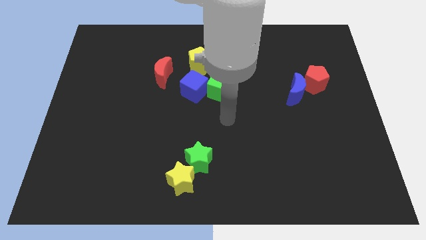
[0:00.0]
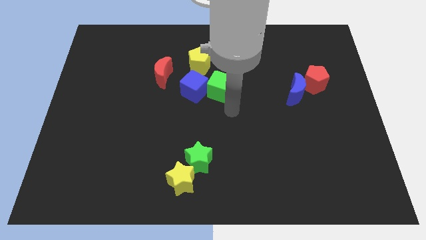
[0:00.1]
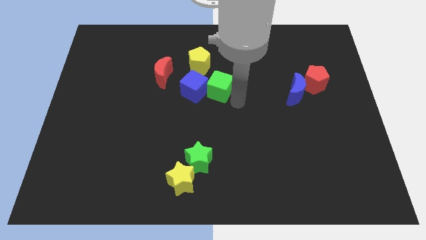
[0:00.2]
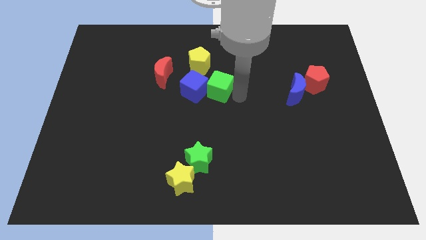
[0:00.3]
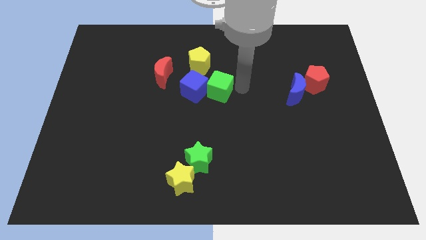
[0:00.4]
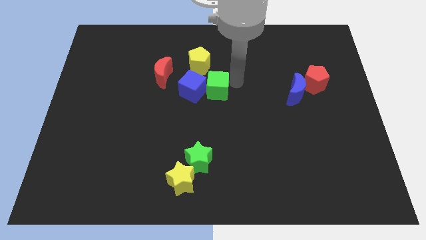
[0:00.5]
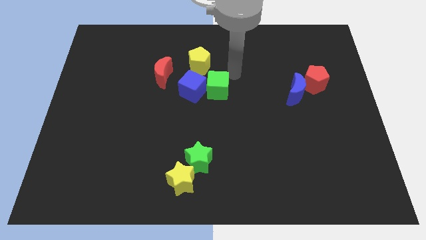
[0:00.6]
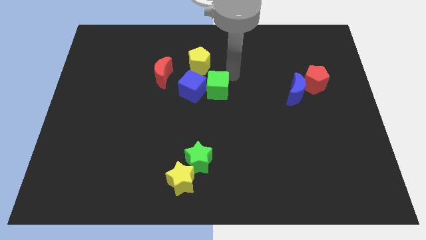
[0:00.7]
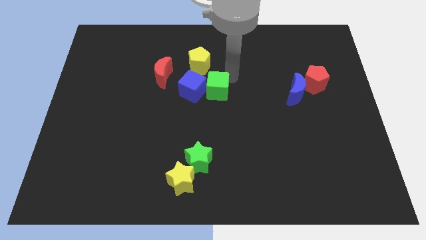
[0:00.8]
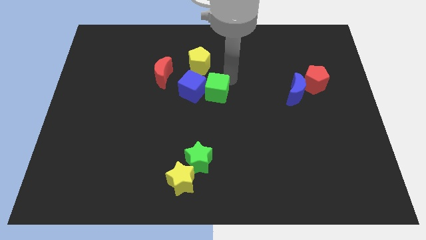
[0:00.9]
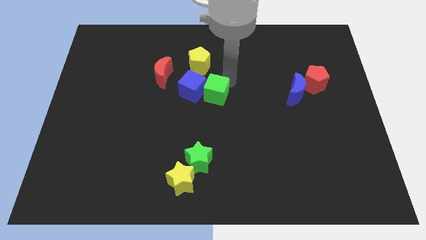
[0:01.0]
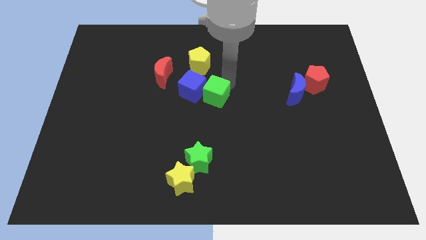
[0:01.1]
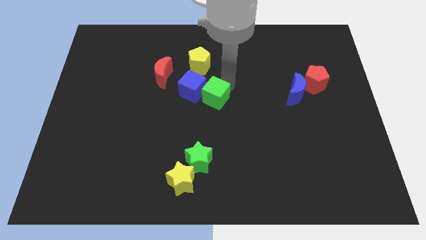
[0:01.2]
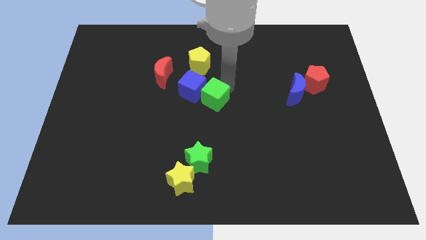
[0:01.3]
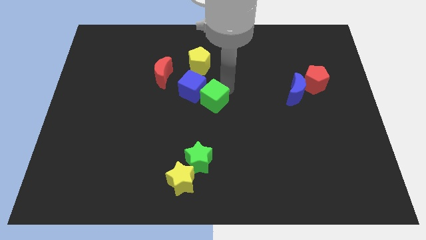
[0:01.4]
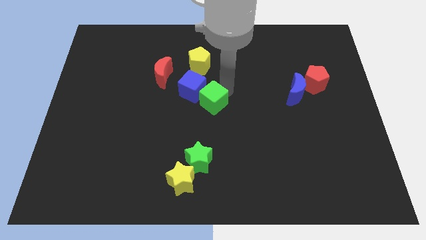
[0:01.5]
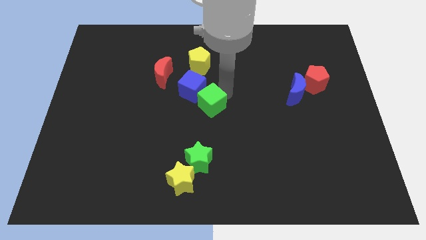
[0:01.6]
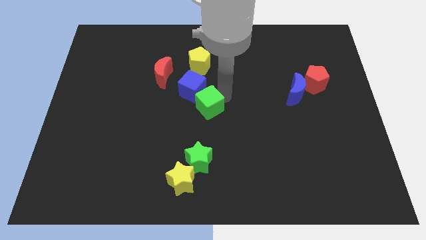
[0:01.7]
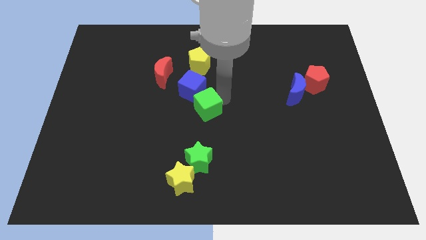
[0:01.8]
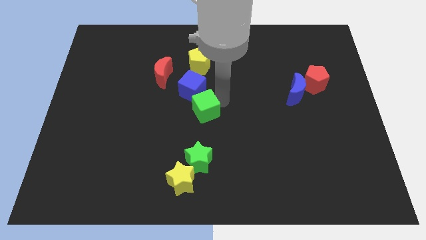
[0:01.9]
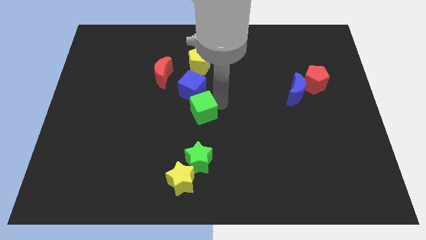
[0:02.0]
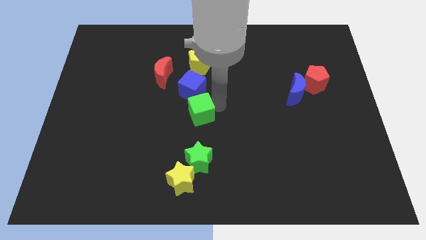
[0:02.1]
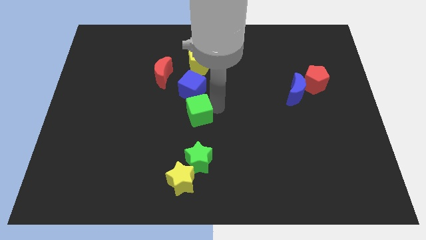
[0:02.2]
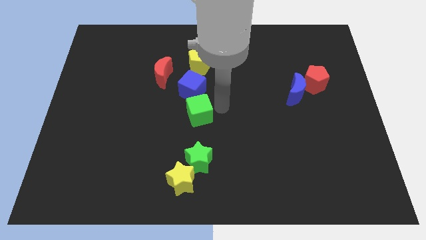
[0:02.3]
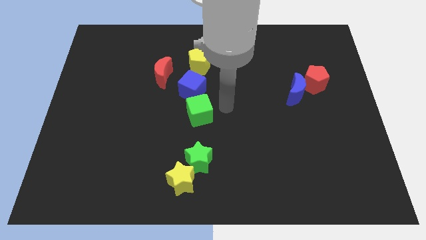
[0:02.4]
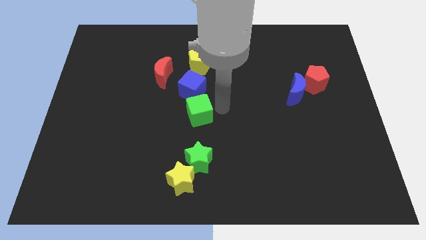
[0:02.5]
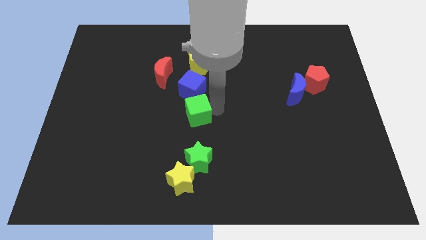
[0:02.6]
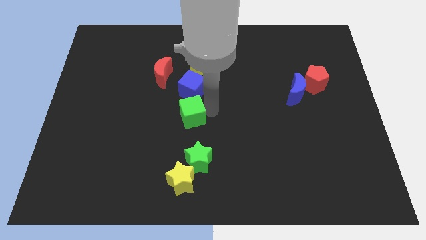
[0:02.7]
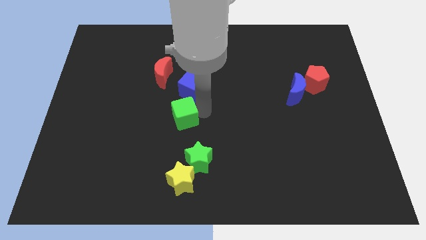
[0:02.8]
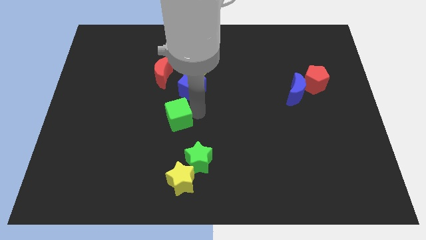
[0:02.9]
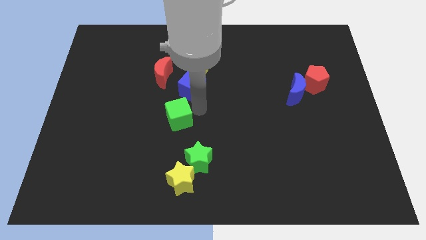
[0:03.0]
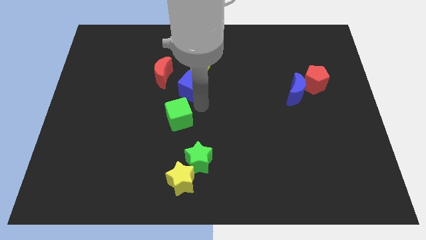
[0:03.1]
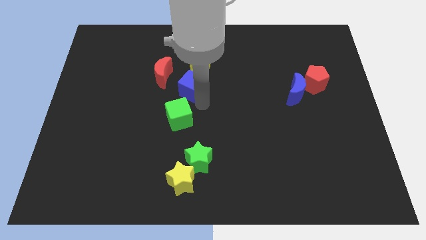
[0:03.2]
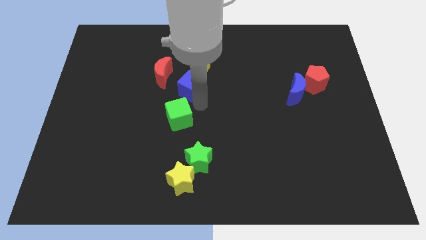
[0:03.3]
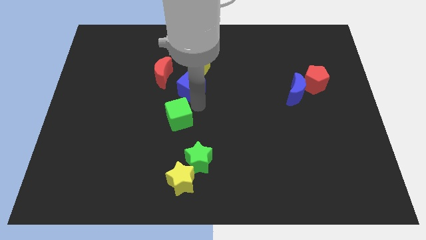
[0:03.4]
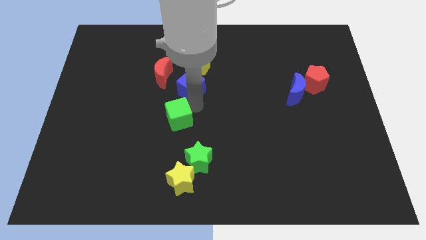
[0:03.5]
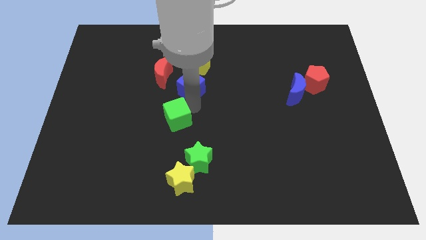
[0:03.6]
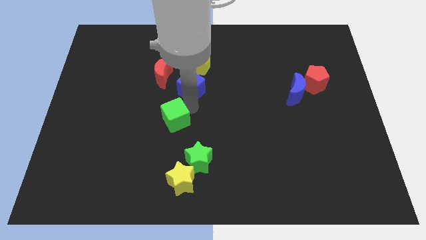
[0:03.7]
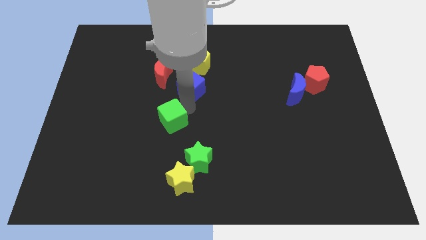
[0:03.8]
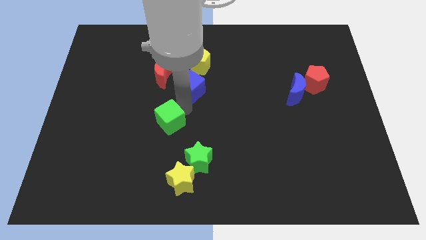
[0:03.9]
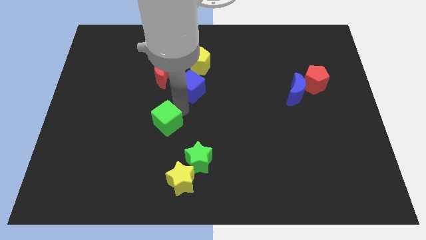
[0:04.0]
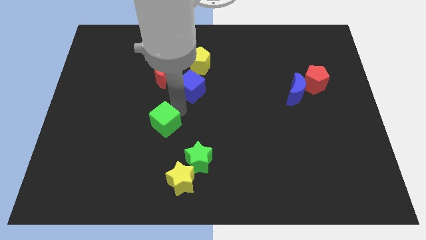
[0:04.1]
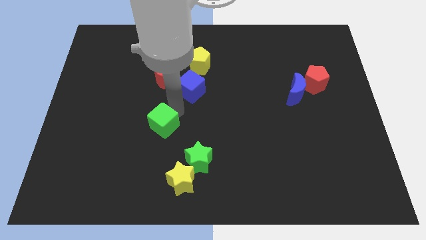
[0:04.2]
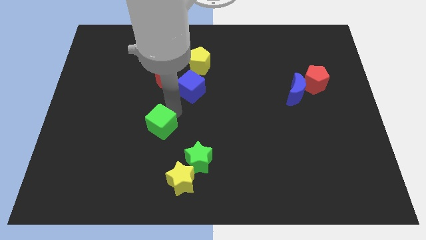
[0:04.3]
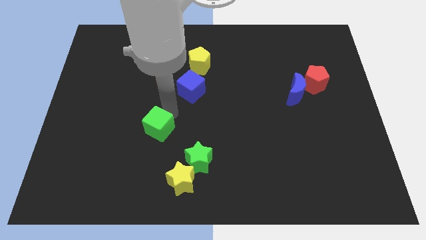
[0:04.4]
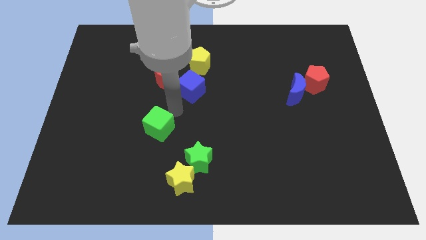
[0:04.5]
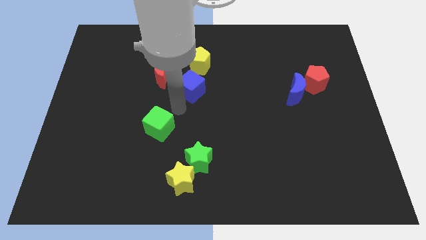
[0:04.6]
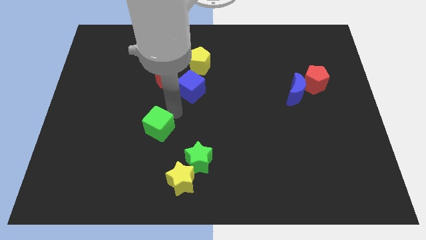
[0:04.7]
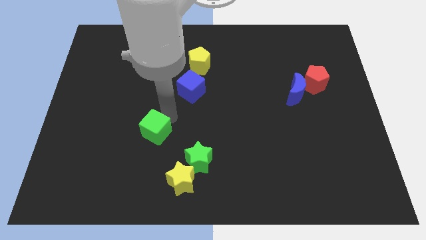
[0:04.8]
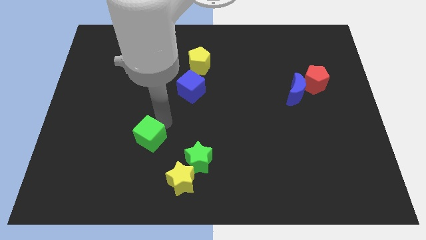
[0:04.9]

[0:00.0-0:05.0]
slide the green cube downwards and left diagonally

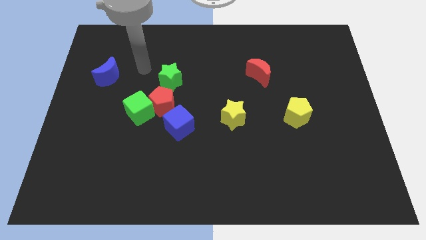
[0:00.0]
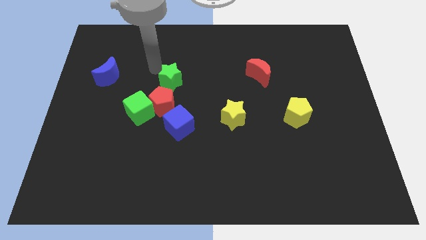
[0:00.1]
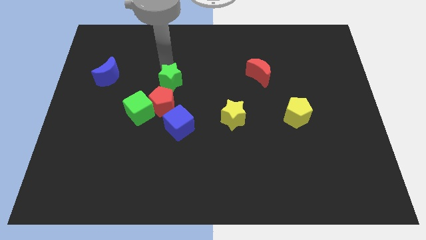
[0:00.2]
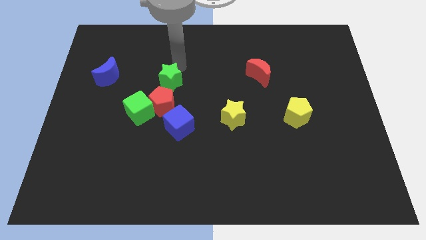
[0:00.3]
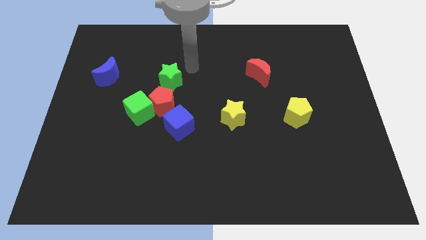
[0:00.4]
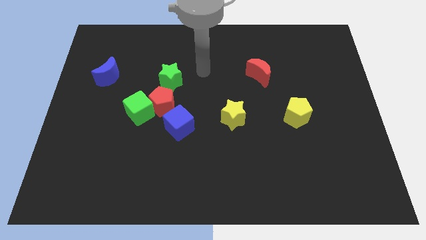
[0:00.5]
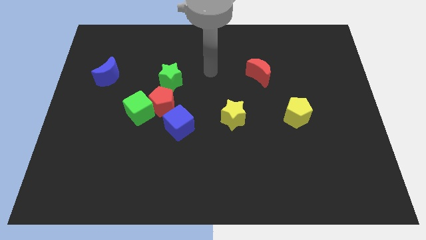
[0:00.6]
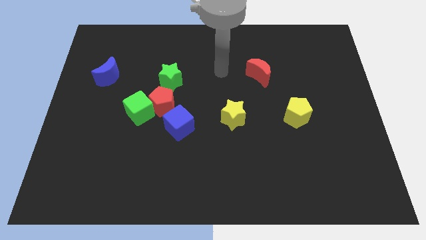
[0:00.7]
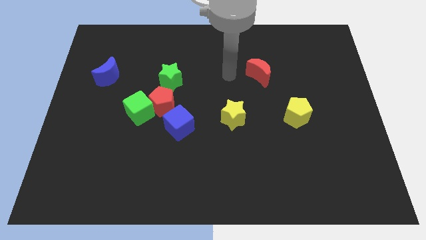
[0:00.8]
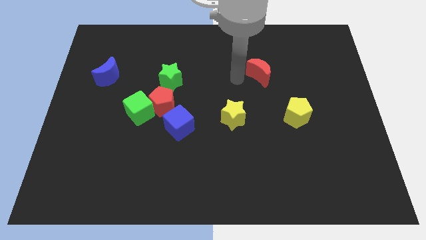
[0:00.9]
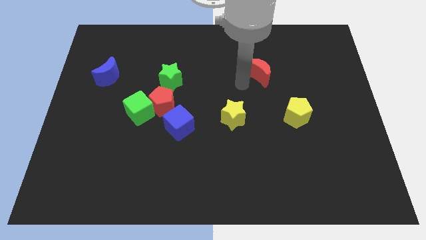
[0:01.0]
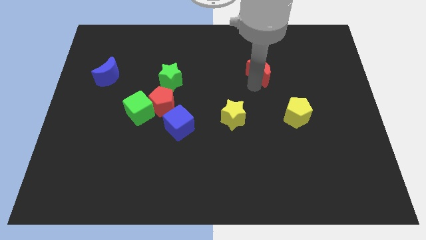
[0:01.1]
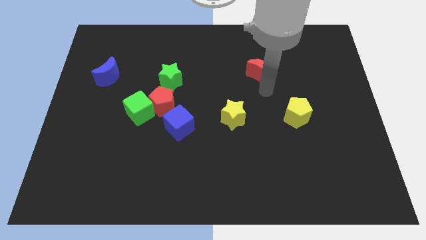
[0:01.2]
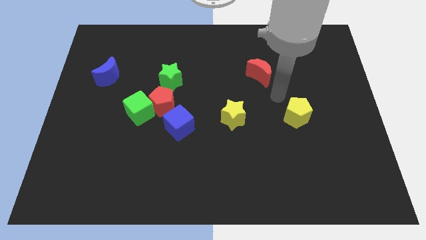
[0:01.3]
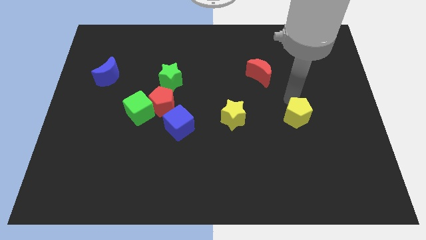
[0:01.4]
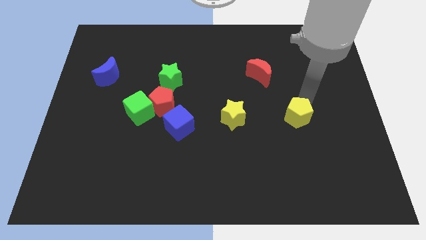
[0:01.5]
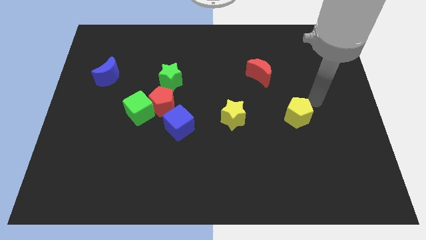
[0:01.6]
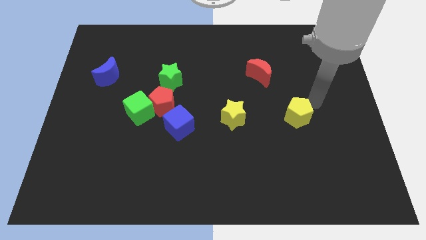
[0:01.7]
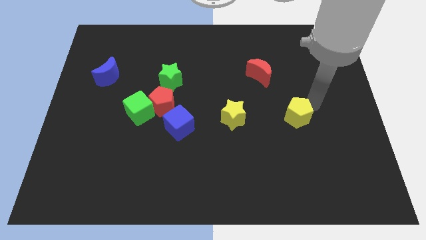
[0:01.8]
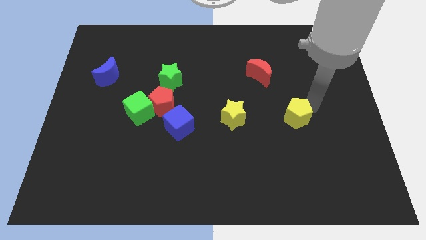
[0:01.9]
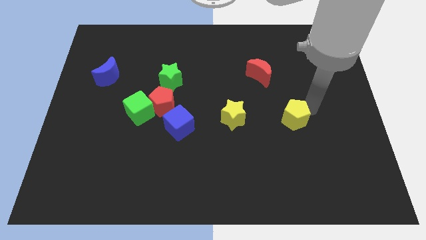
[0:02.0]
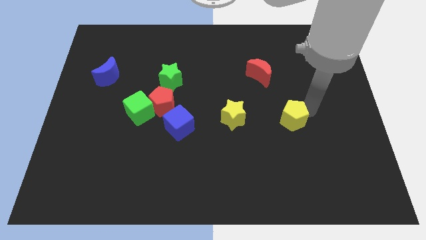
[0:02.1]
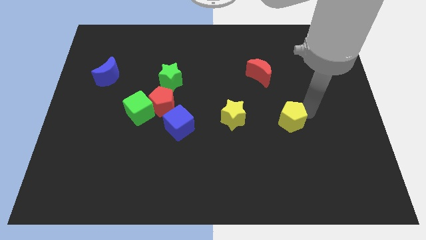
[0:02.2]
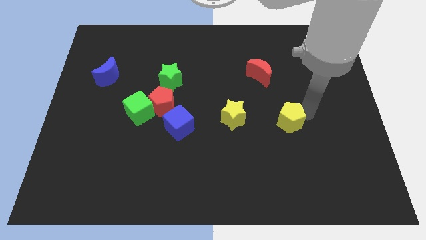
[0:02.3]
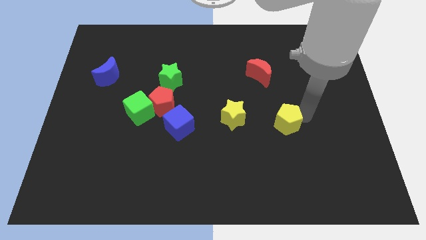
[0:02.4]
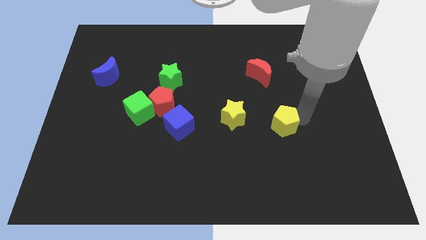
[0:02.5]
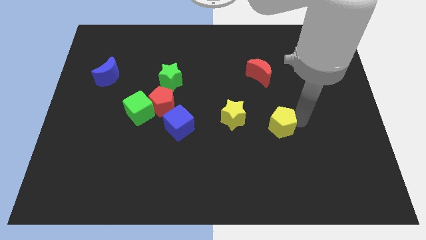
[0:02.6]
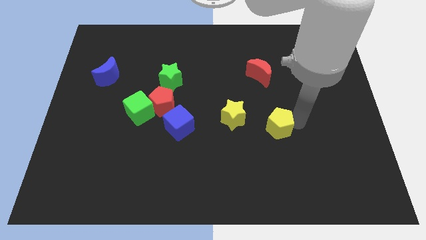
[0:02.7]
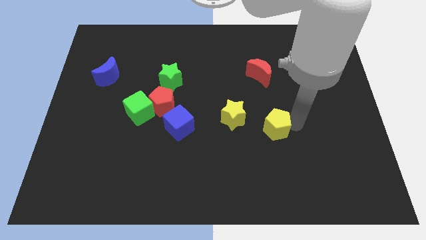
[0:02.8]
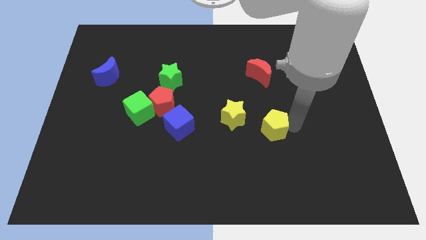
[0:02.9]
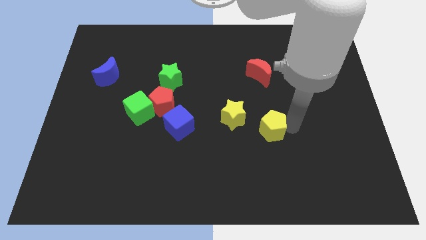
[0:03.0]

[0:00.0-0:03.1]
slightly slide the yellow pentagon down and then to the left
